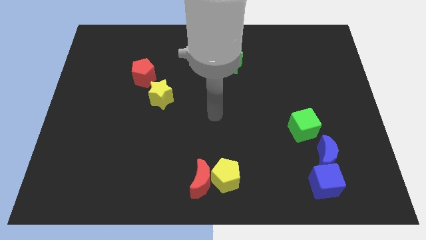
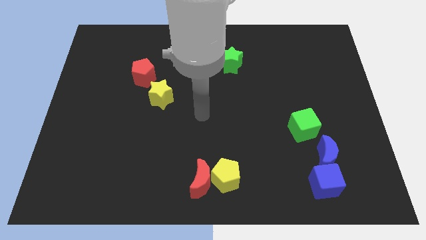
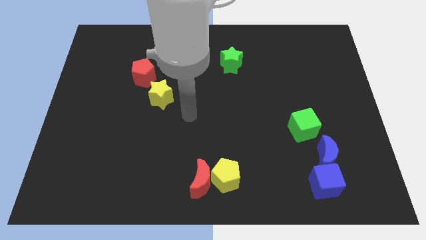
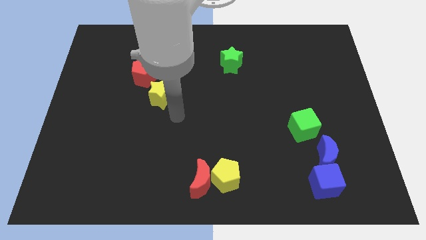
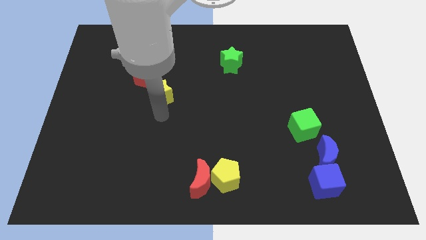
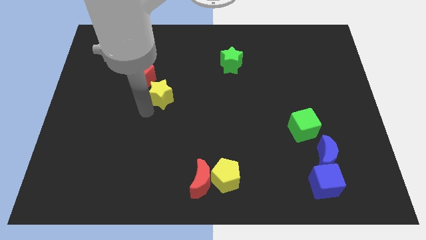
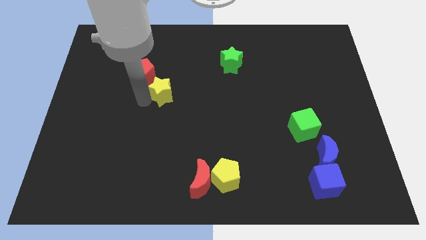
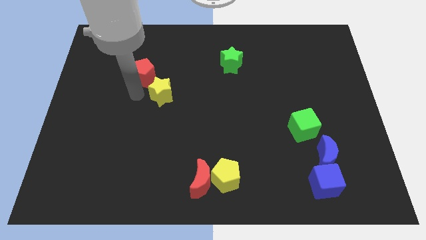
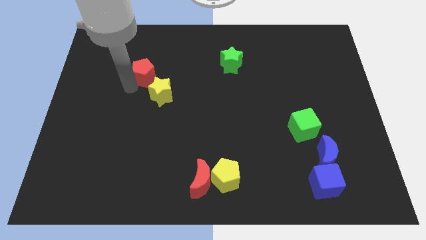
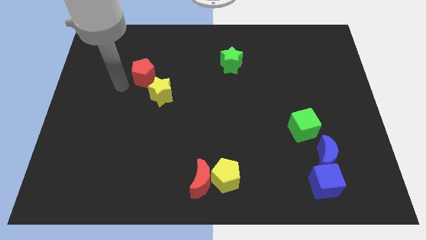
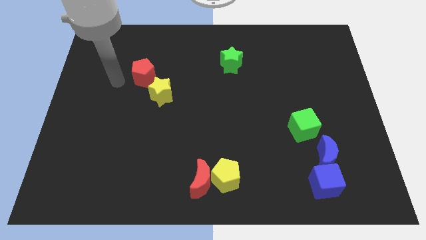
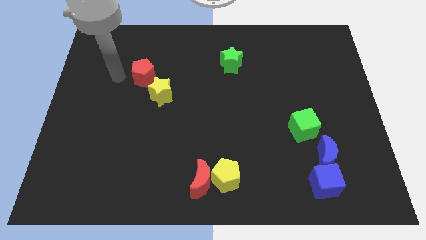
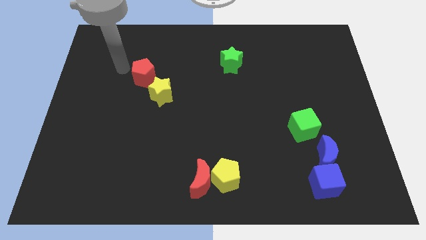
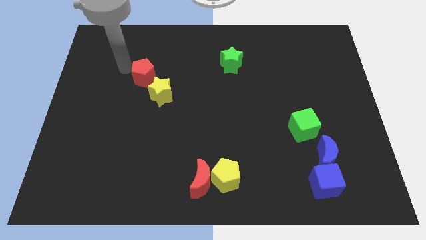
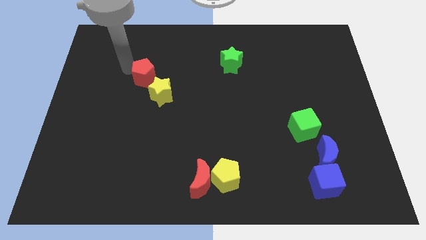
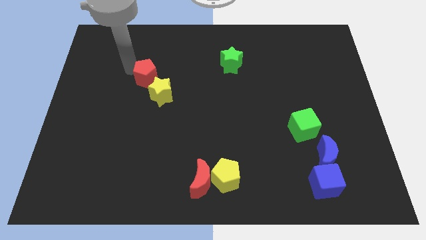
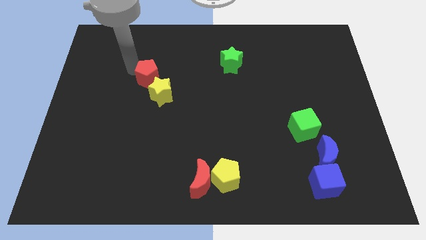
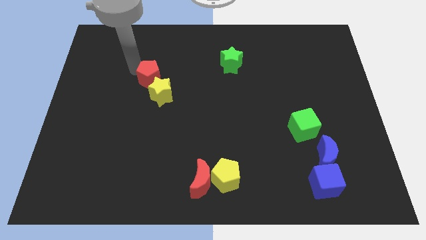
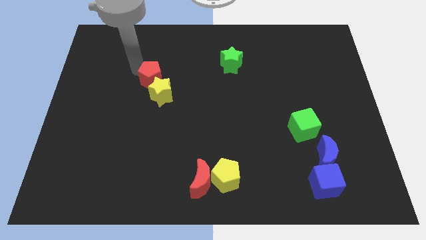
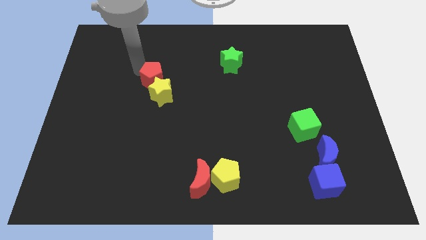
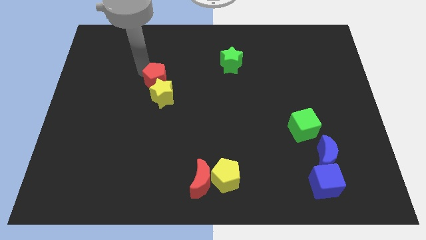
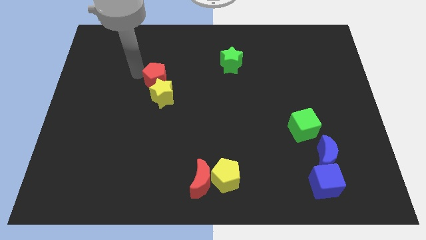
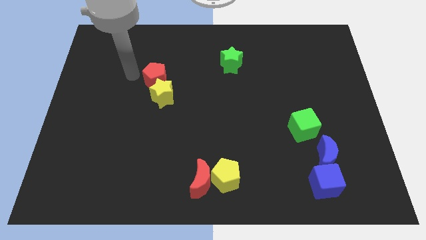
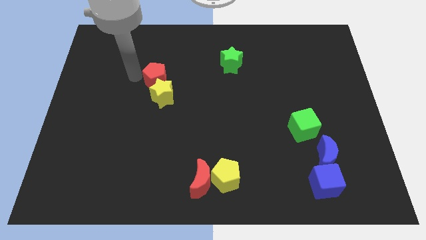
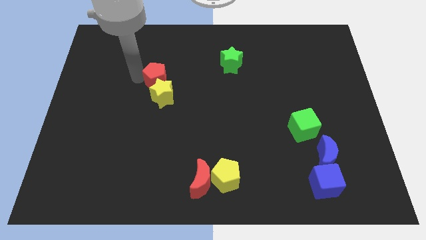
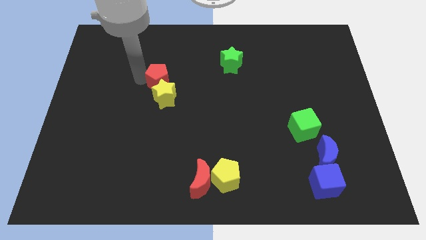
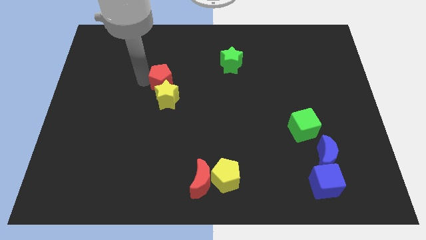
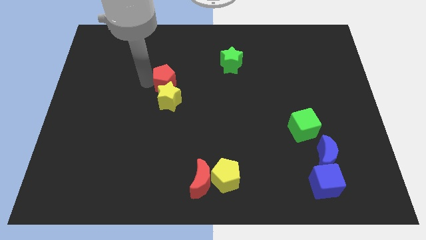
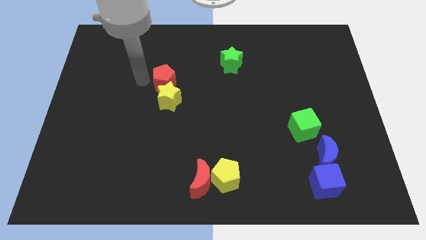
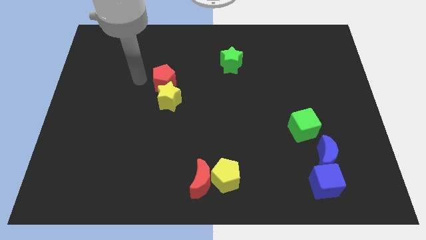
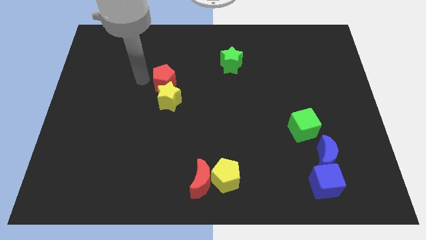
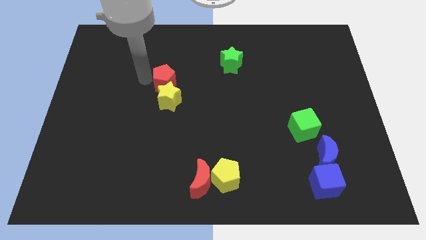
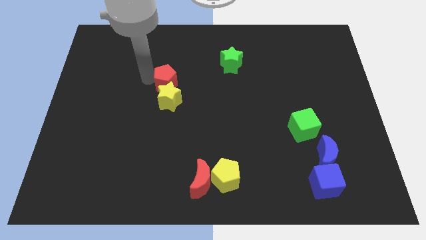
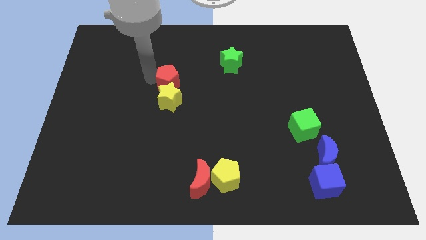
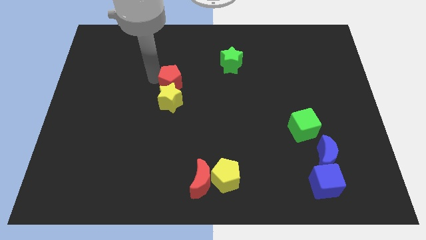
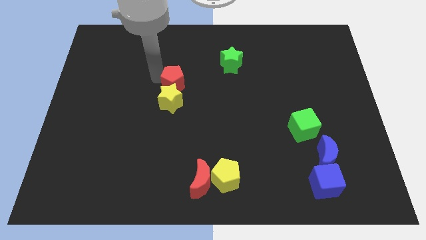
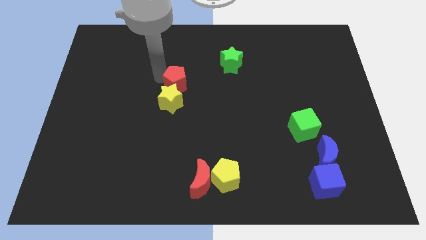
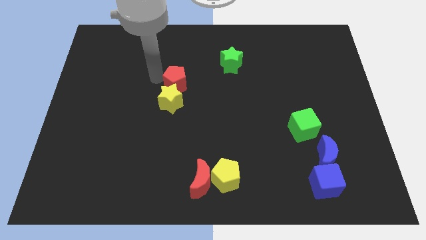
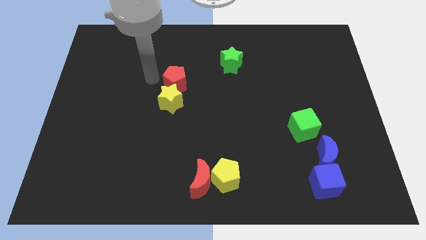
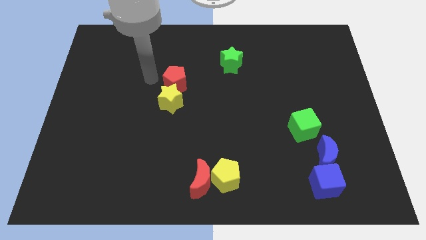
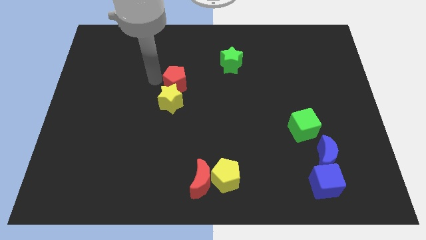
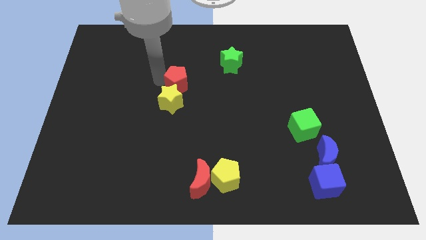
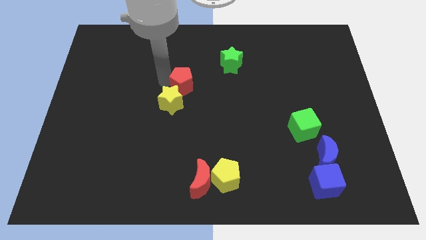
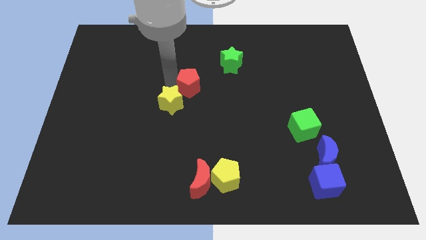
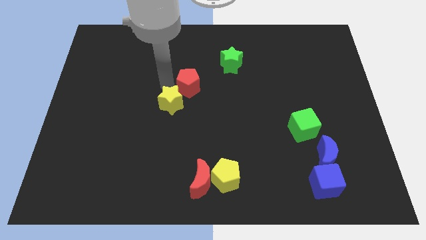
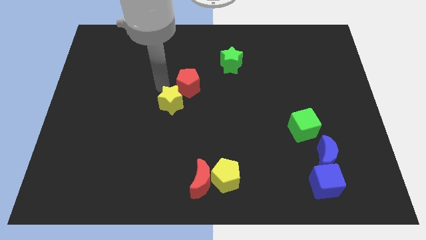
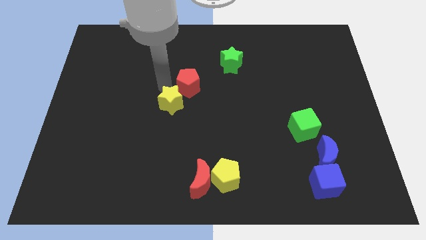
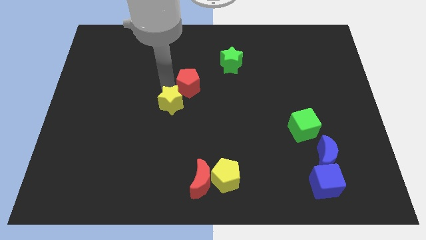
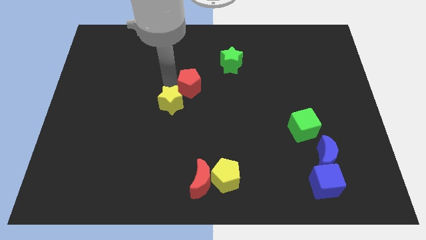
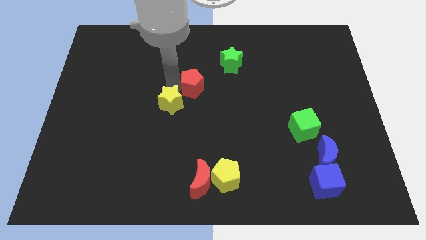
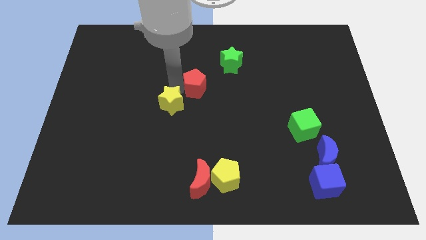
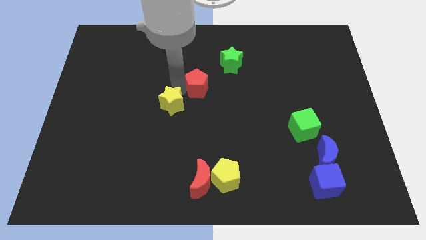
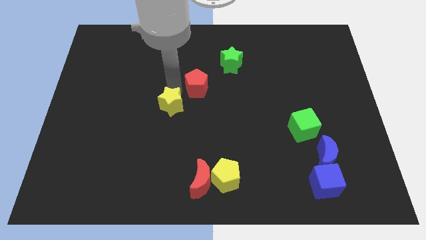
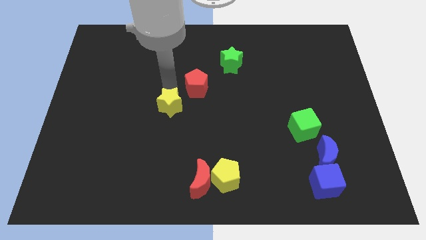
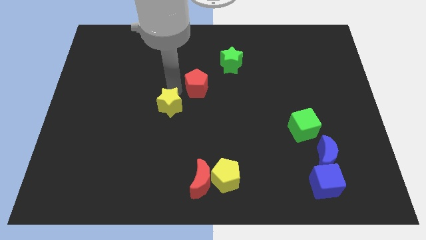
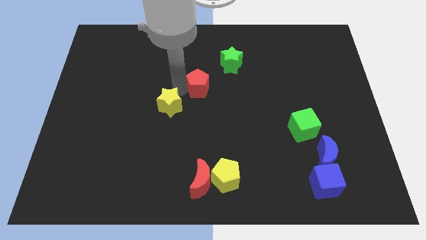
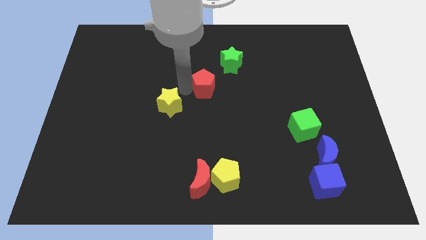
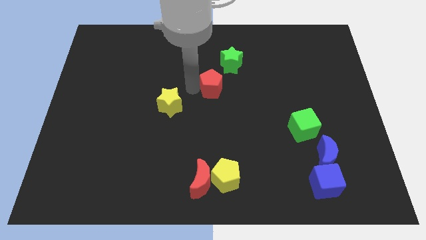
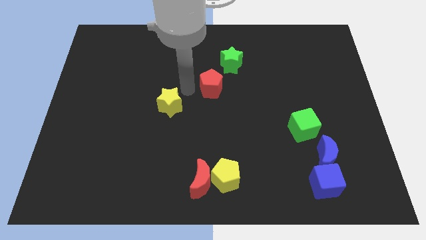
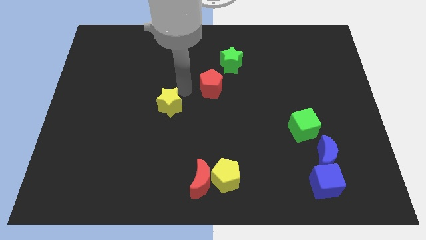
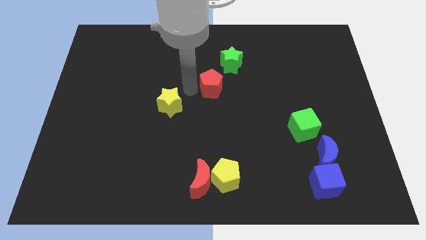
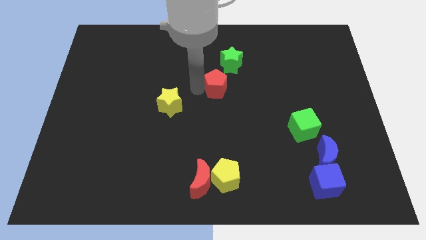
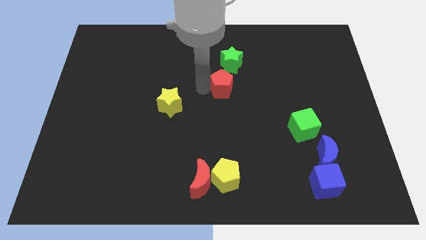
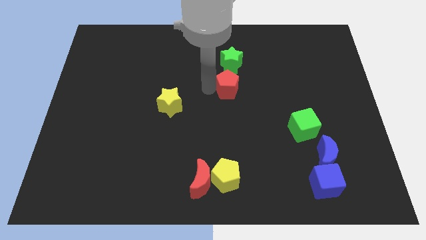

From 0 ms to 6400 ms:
push the red pentagon to the right

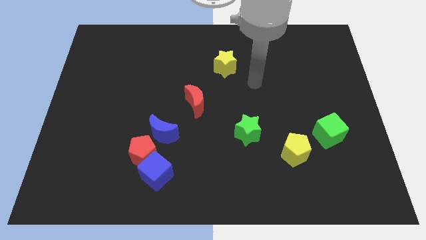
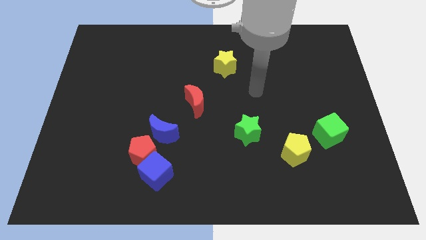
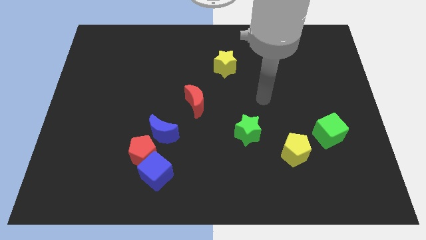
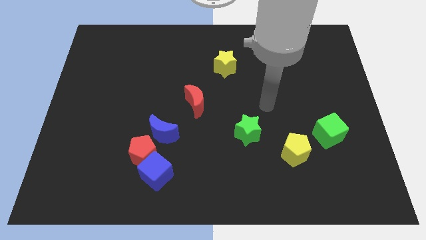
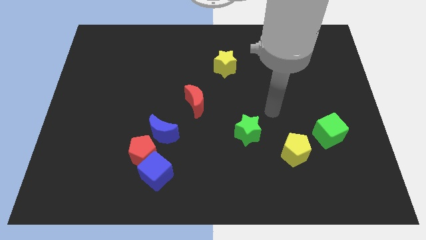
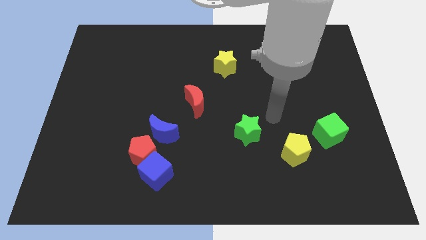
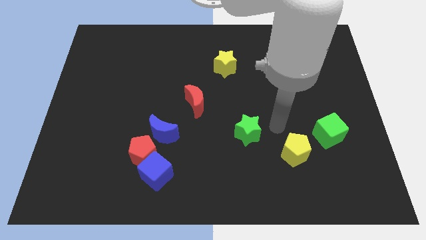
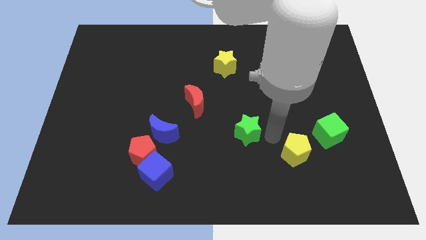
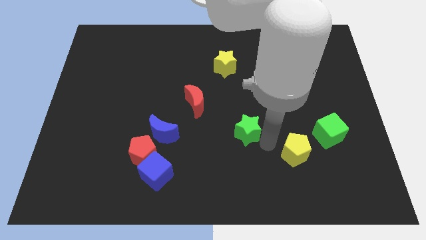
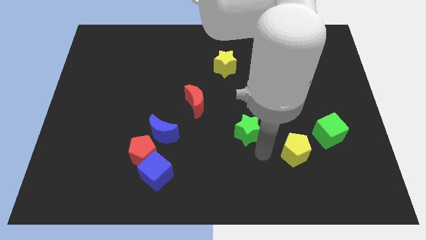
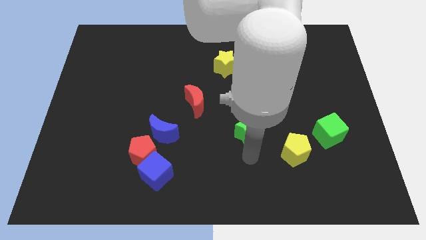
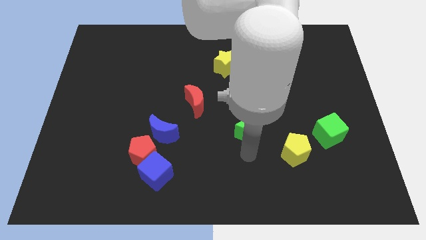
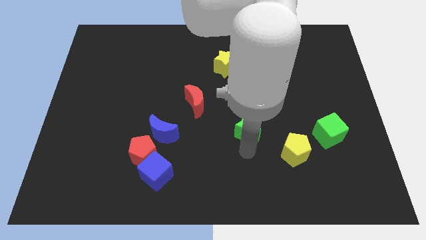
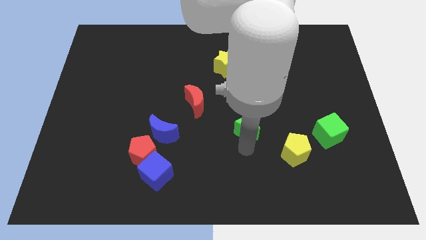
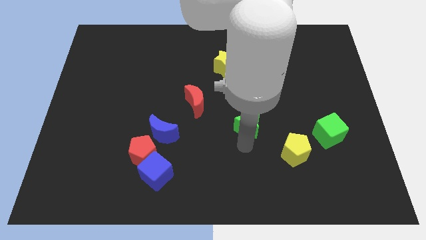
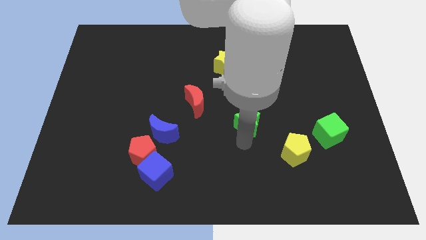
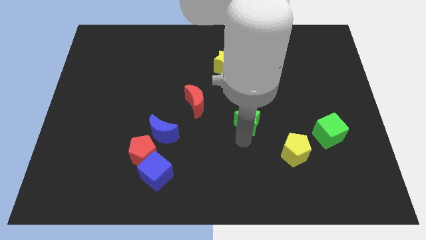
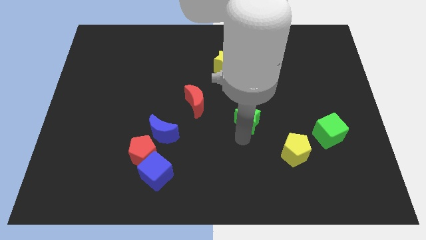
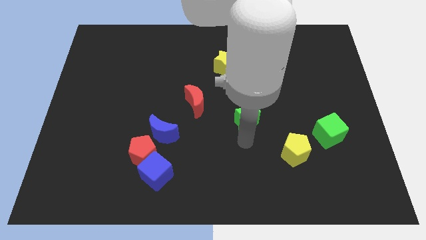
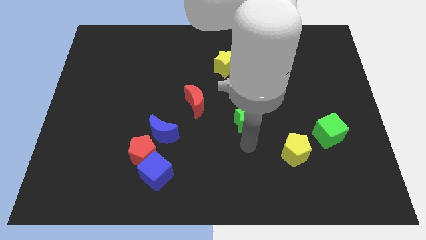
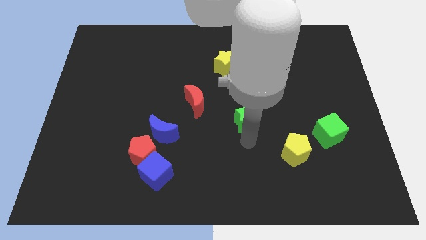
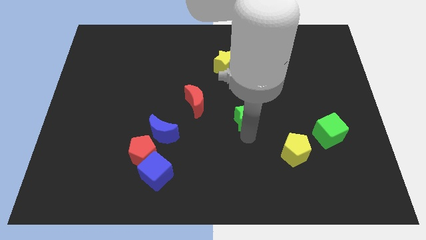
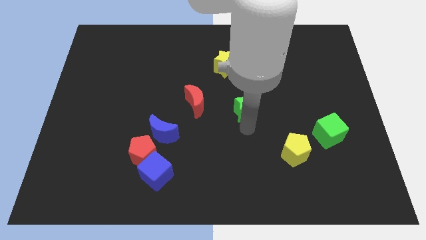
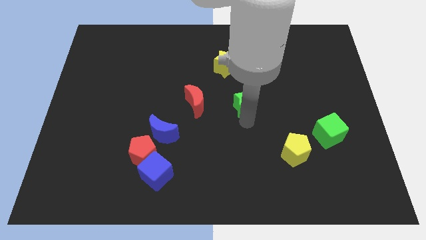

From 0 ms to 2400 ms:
slide the green star upwards a little bit
